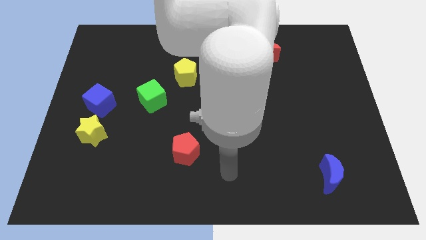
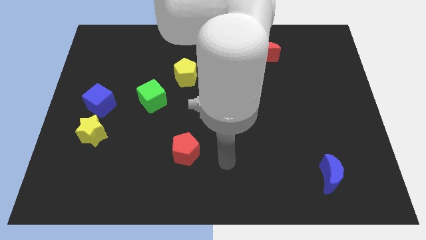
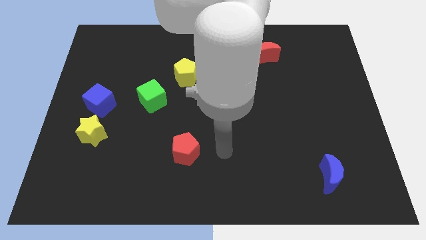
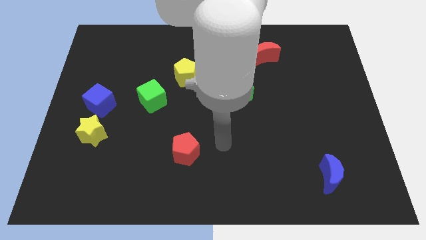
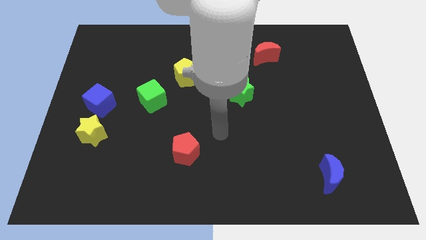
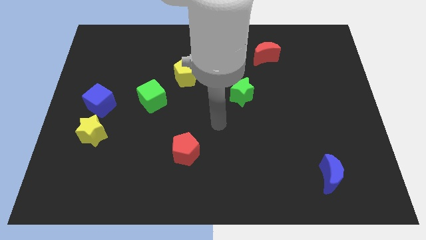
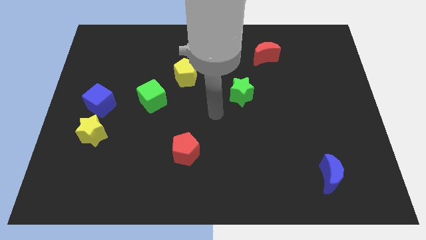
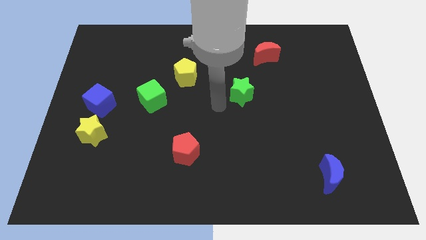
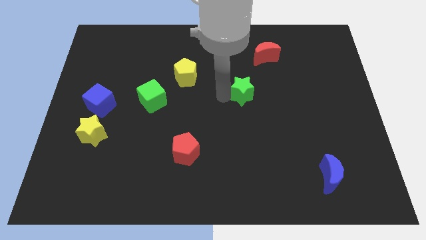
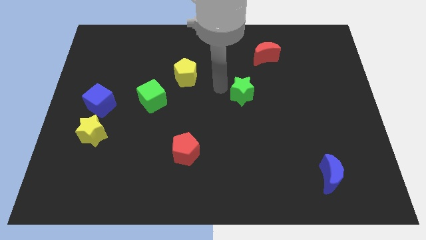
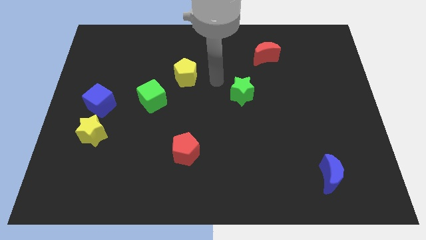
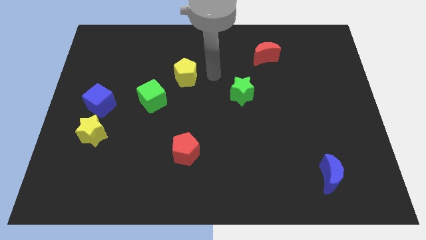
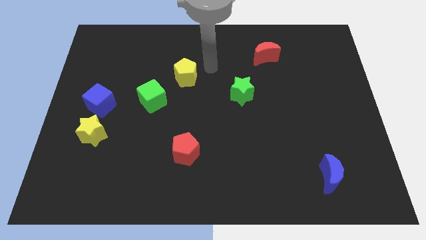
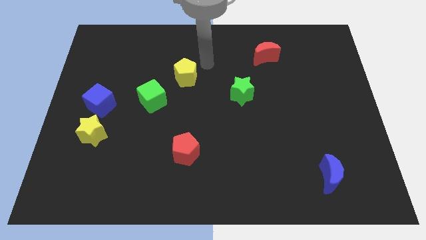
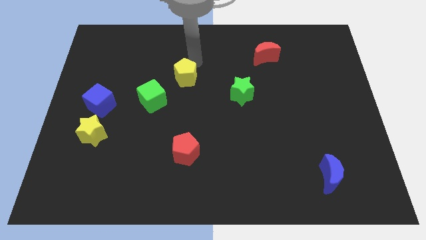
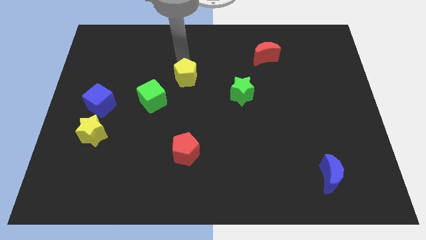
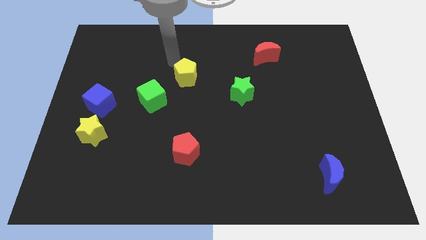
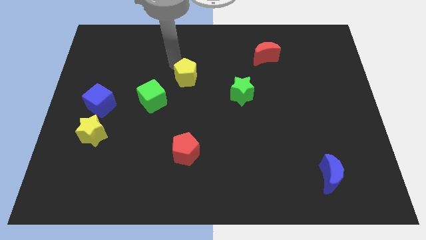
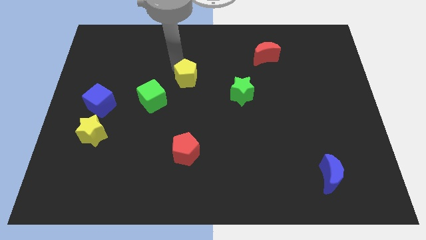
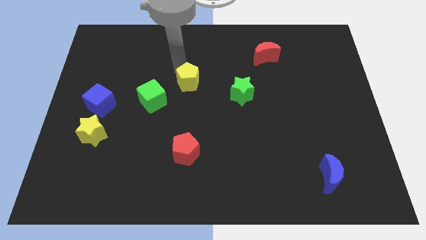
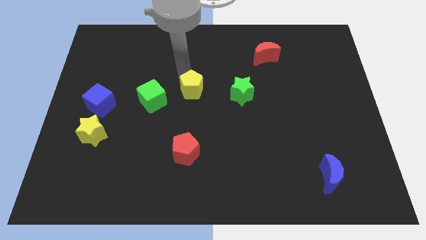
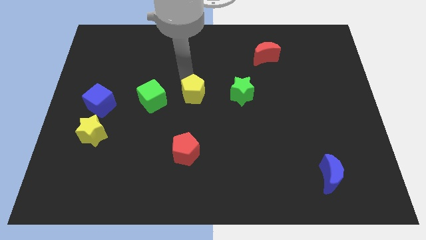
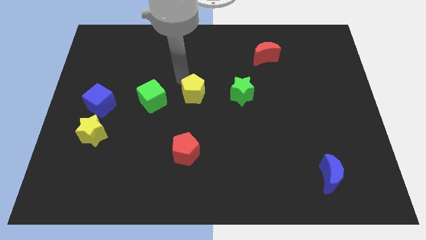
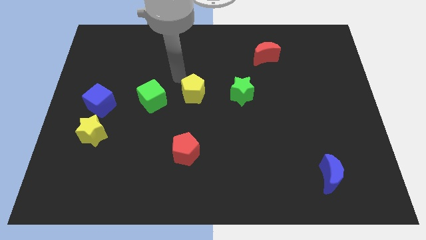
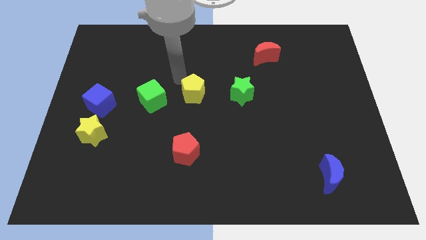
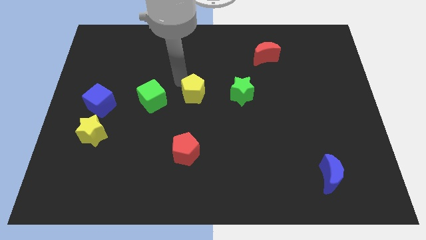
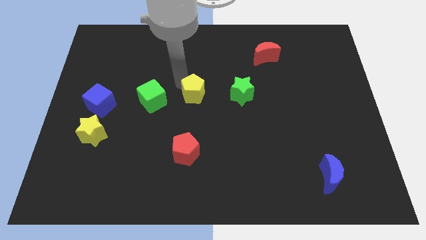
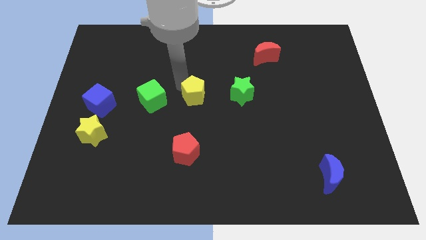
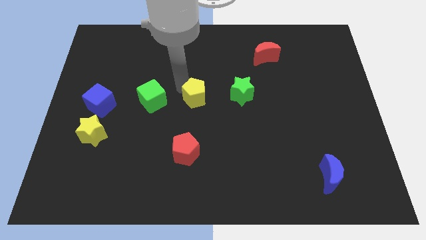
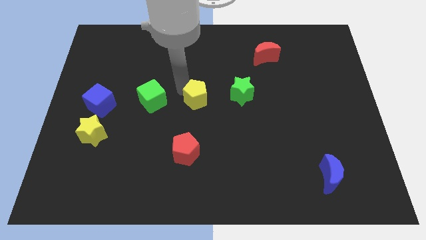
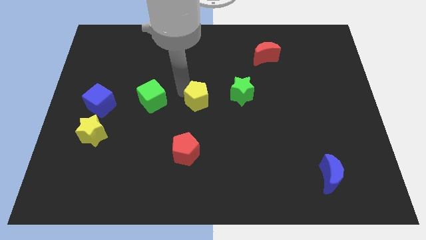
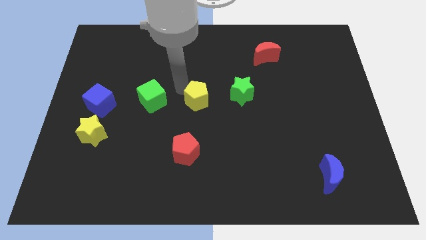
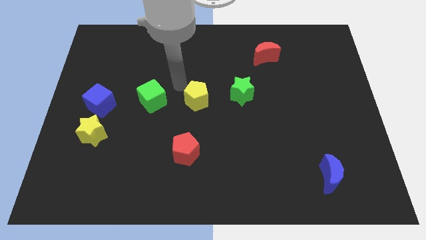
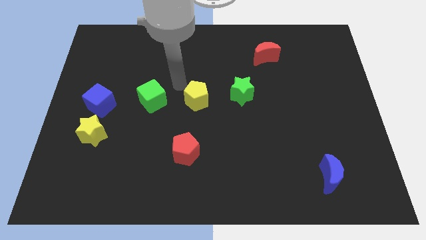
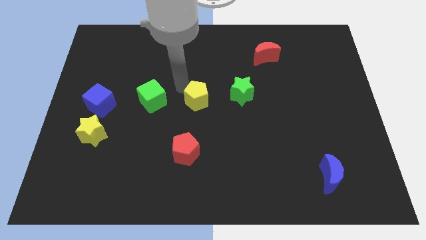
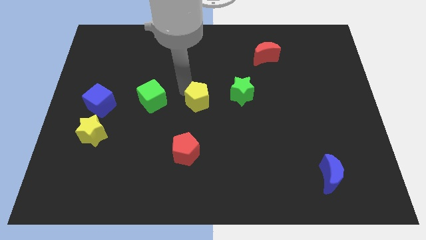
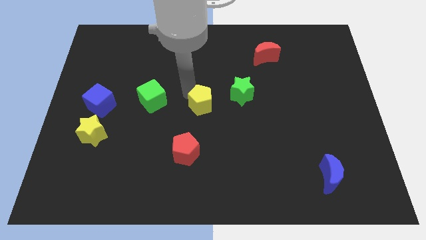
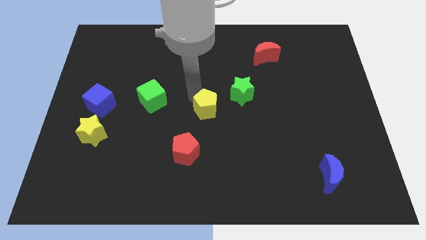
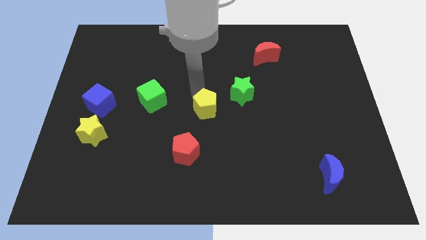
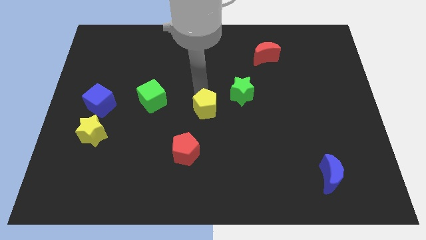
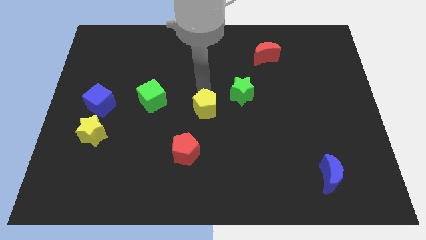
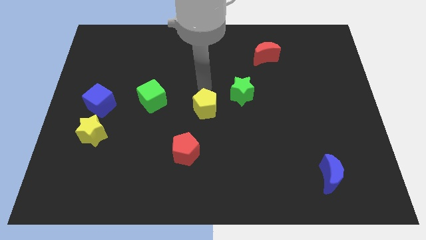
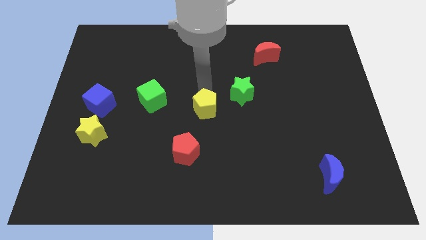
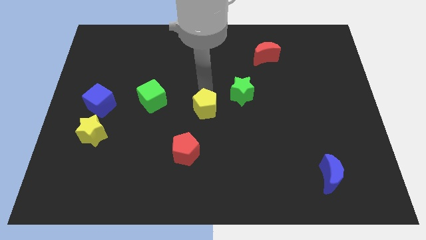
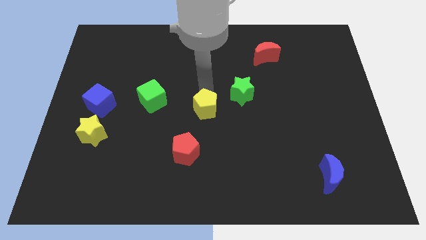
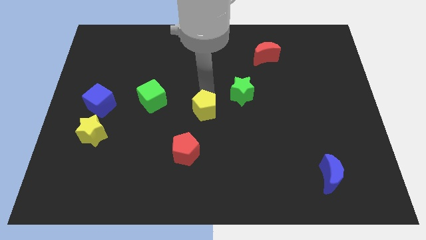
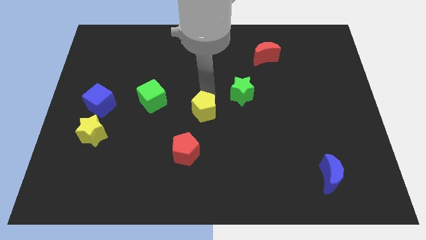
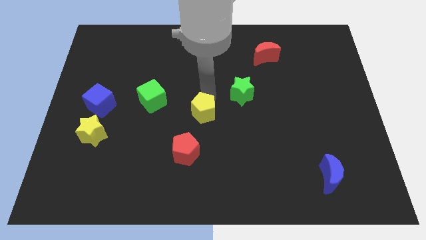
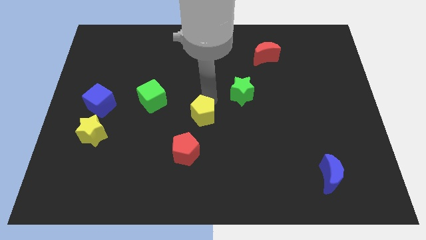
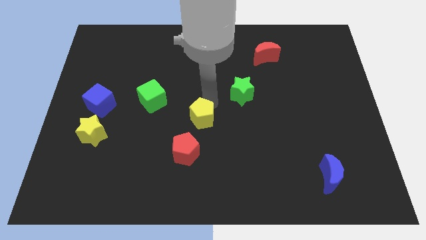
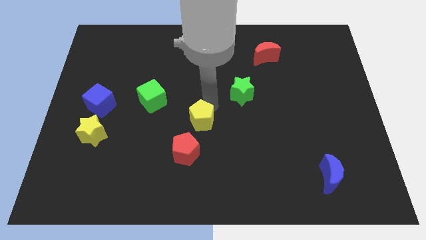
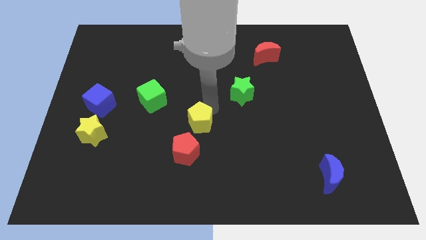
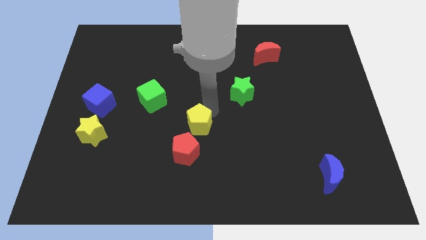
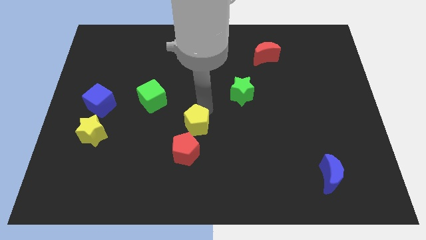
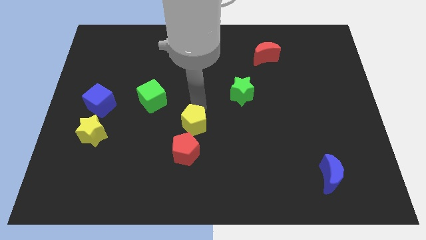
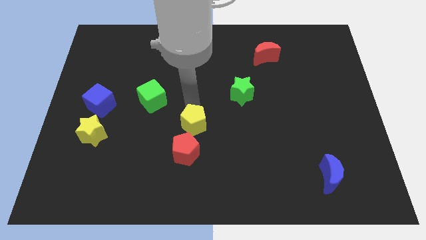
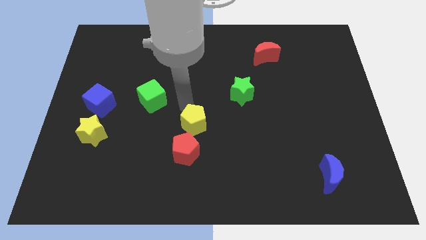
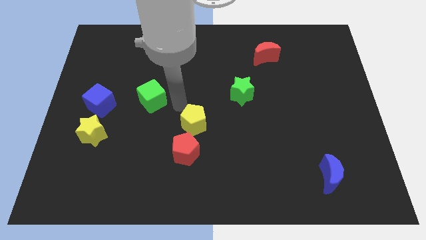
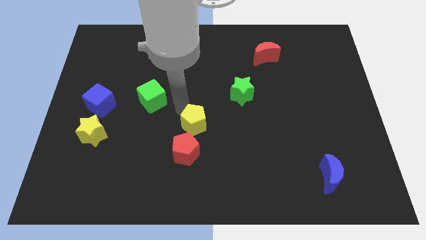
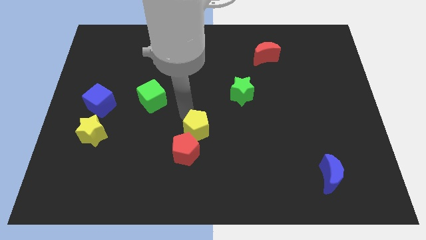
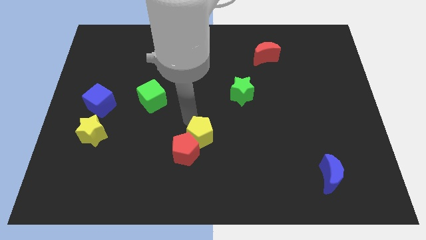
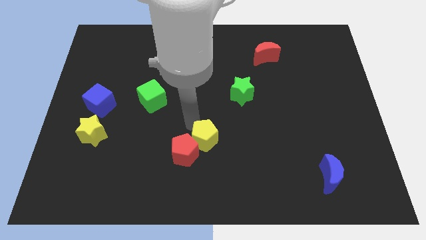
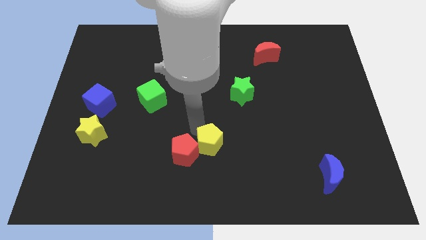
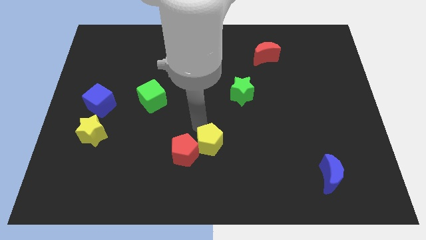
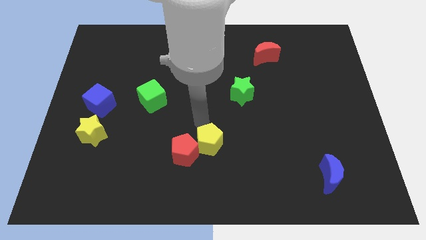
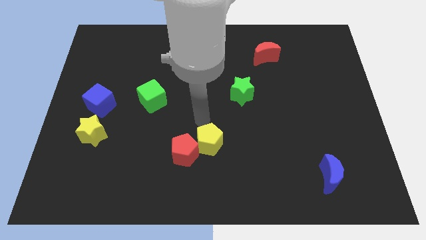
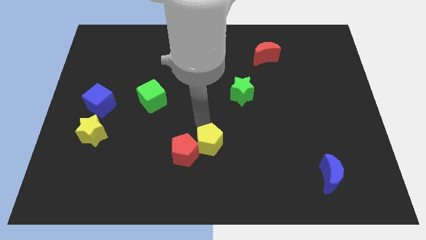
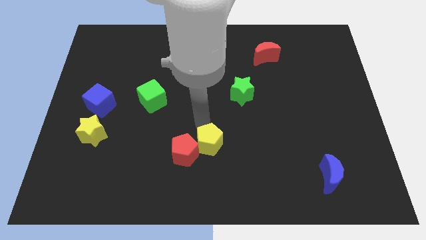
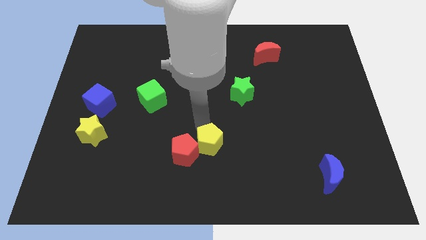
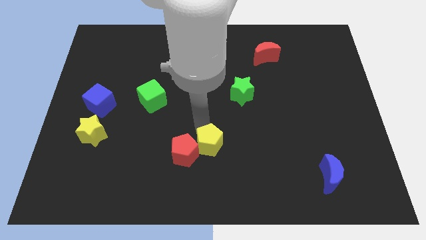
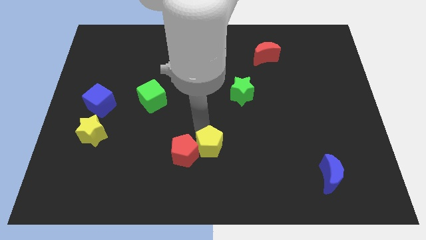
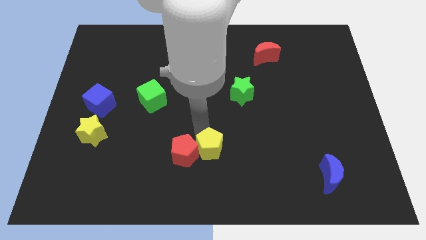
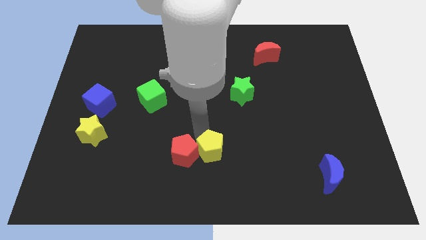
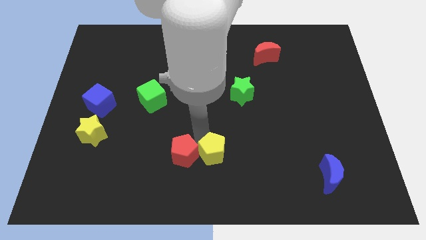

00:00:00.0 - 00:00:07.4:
push the yellow pentagon to the bottom side
